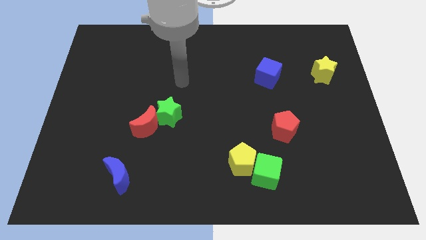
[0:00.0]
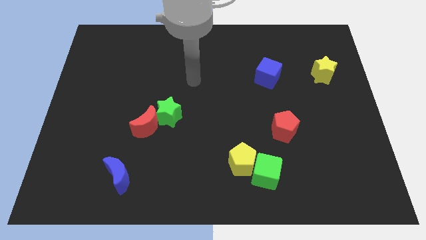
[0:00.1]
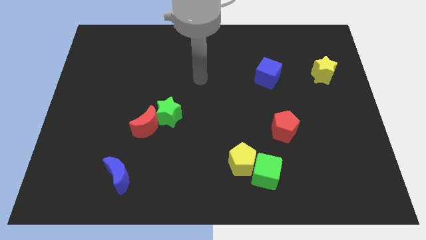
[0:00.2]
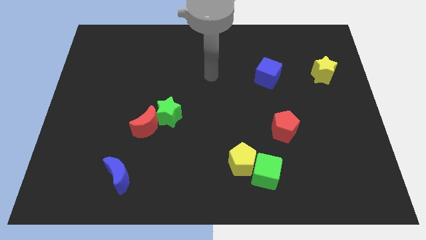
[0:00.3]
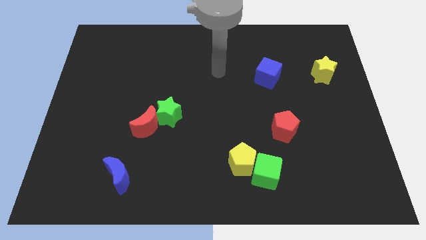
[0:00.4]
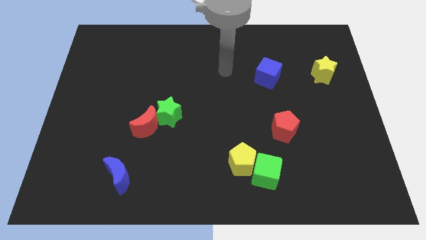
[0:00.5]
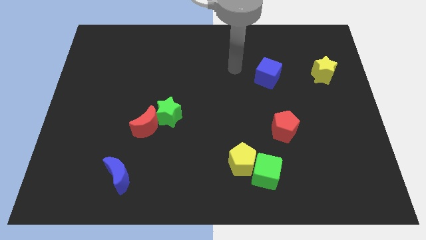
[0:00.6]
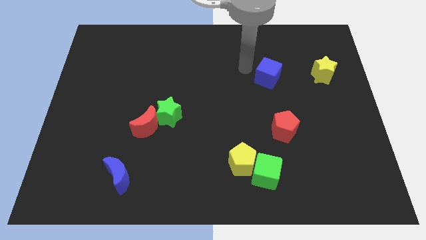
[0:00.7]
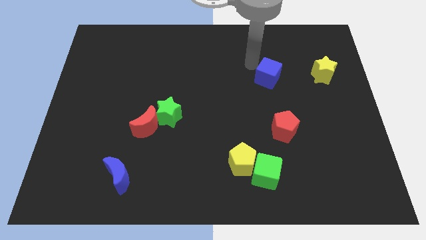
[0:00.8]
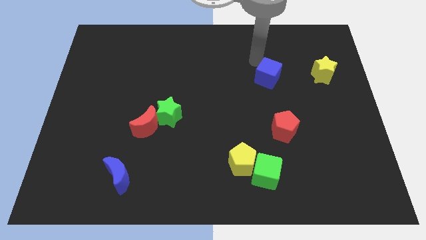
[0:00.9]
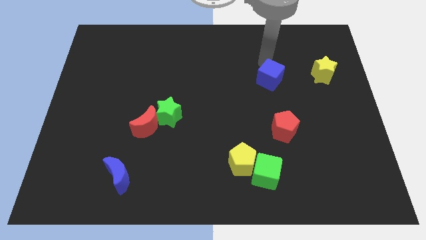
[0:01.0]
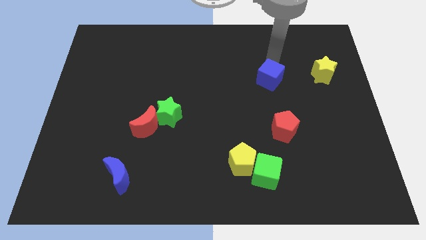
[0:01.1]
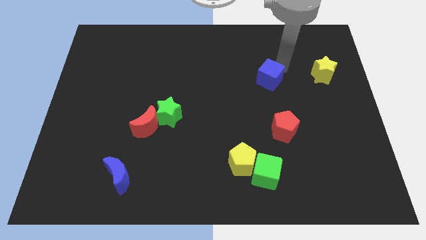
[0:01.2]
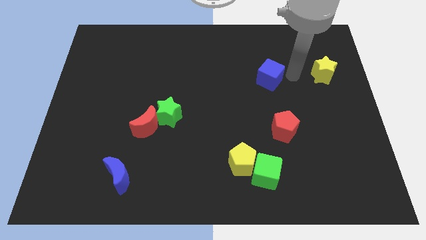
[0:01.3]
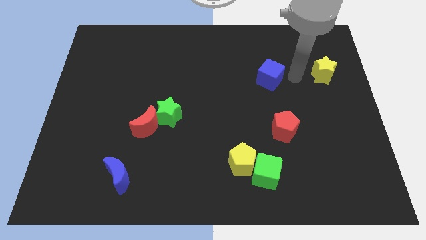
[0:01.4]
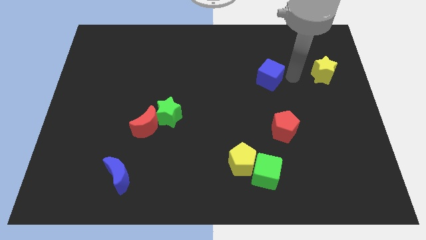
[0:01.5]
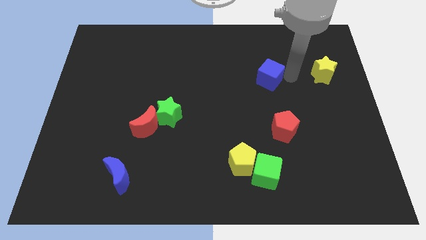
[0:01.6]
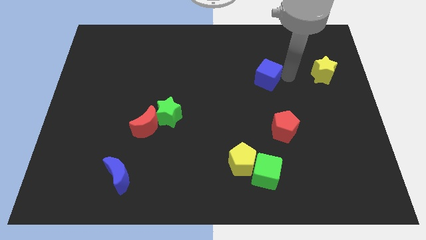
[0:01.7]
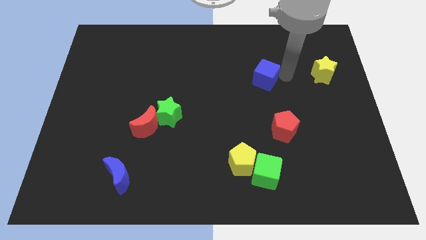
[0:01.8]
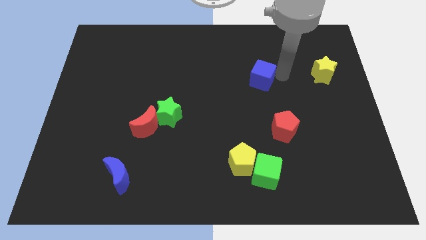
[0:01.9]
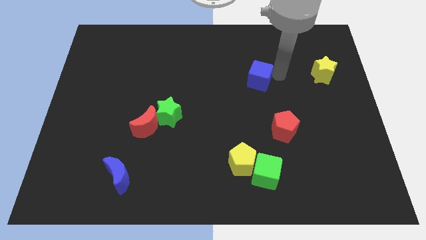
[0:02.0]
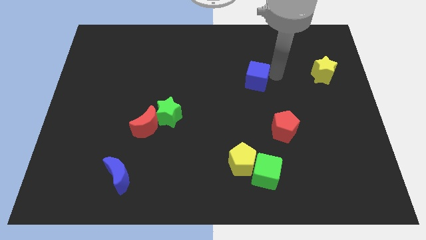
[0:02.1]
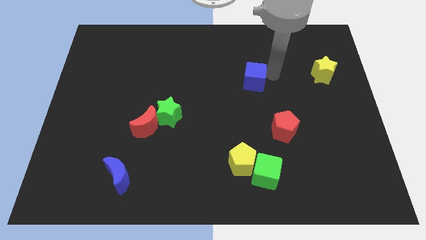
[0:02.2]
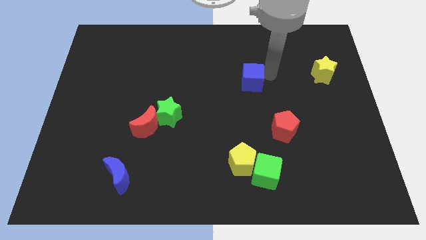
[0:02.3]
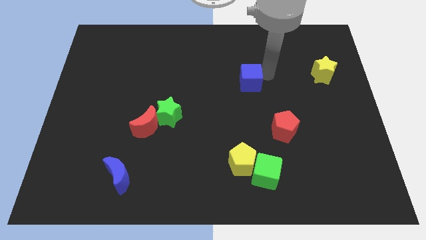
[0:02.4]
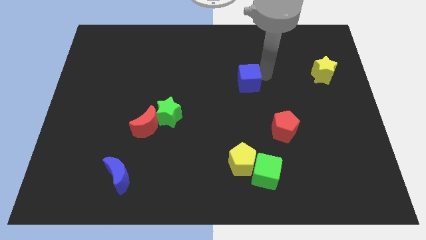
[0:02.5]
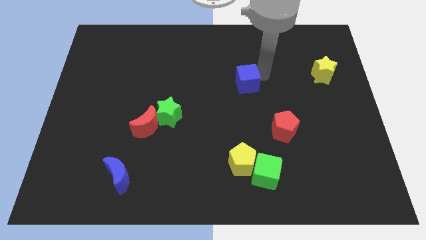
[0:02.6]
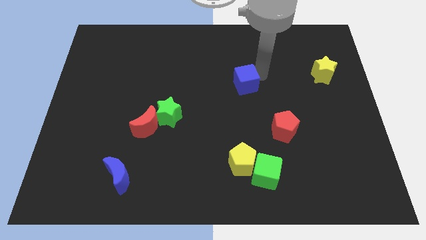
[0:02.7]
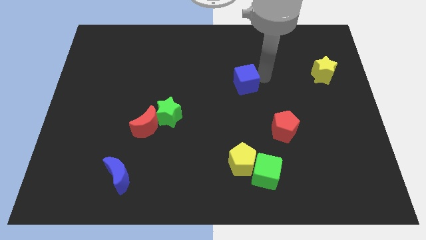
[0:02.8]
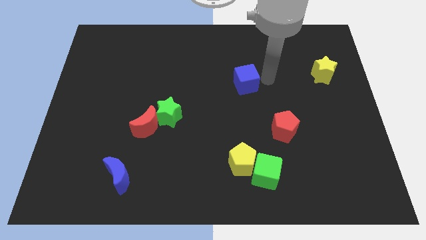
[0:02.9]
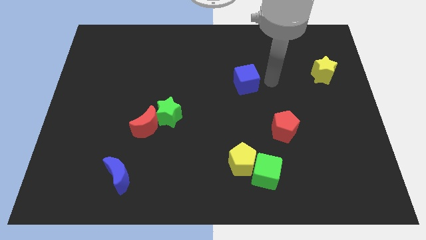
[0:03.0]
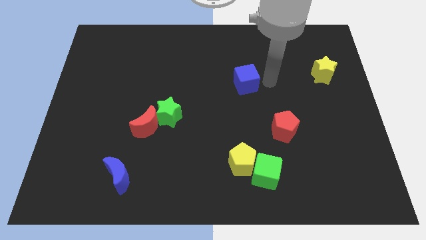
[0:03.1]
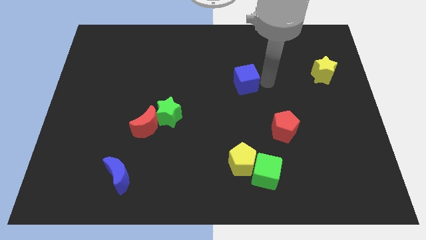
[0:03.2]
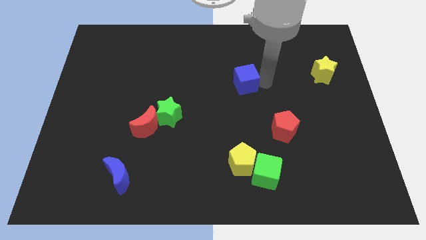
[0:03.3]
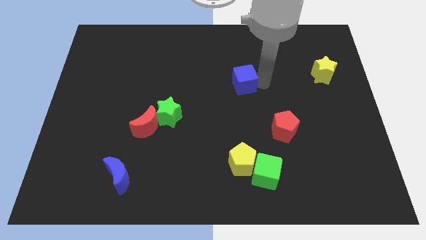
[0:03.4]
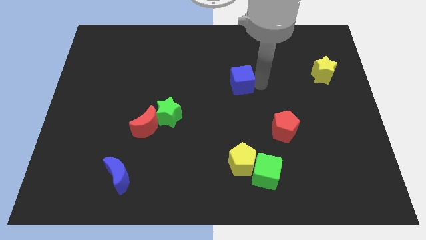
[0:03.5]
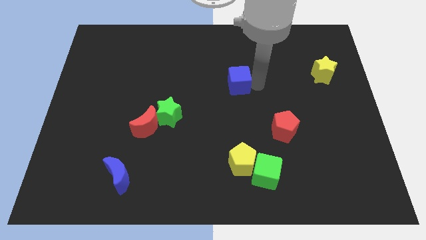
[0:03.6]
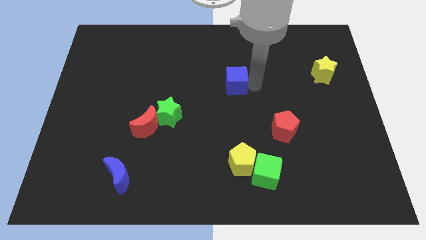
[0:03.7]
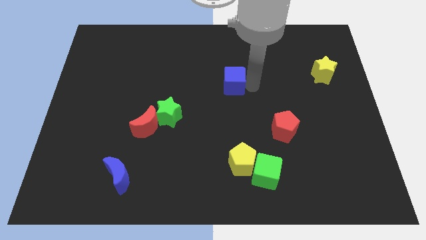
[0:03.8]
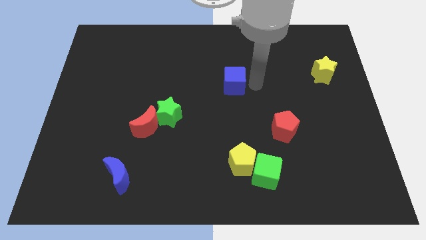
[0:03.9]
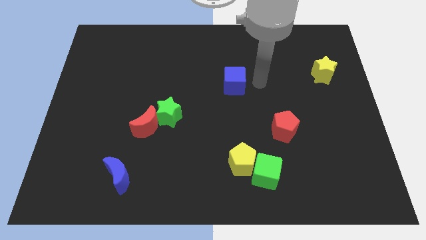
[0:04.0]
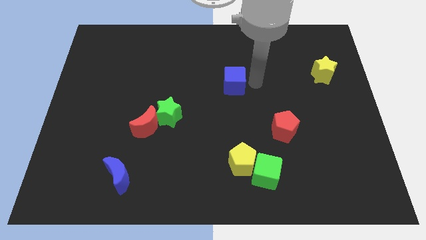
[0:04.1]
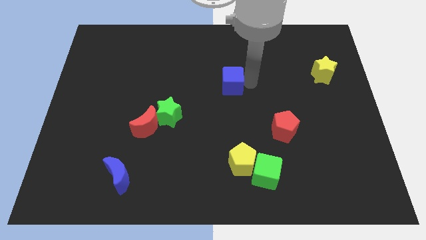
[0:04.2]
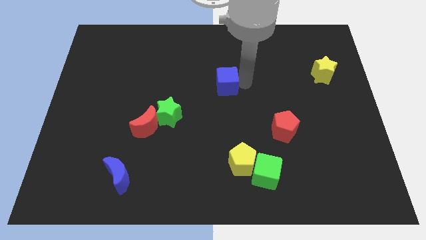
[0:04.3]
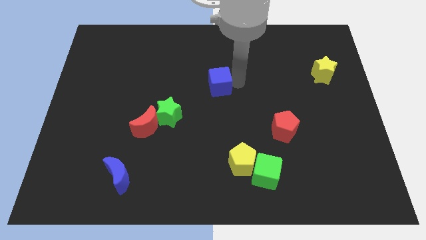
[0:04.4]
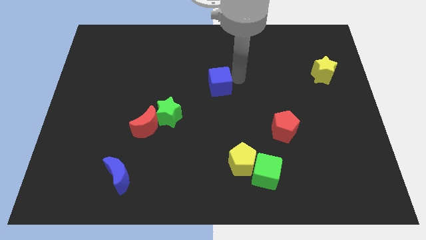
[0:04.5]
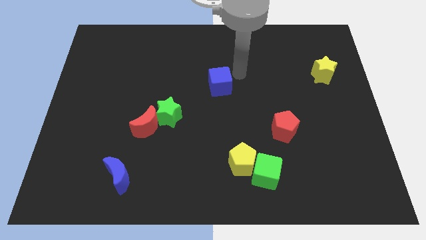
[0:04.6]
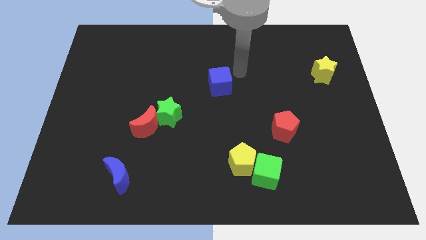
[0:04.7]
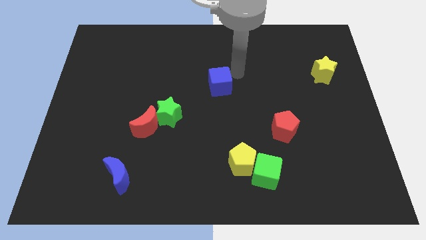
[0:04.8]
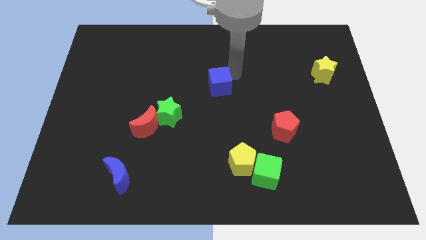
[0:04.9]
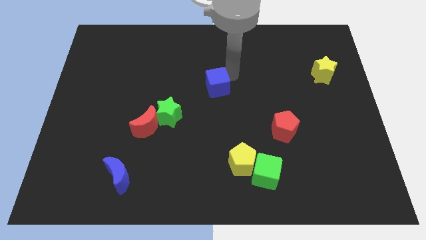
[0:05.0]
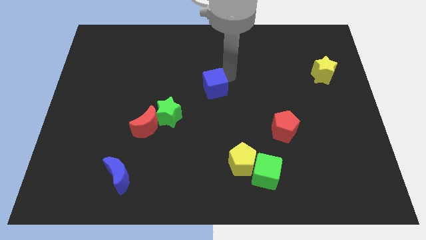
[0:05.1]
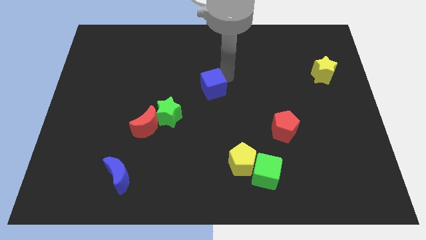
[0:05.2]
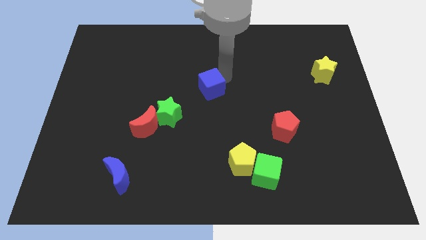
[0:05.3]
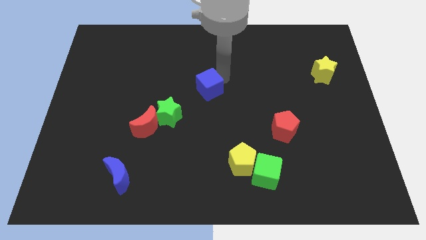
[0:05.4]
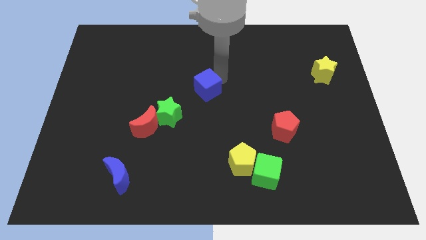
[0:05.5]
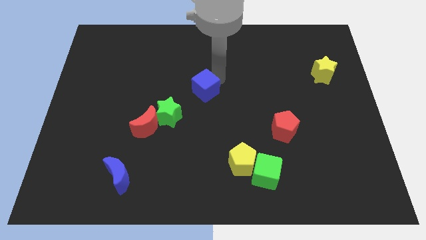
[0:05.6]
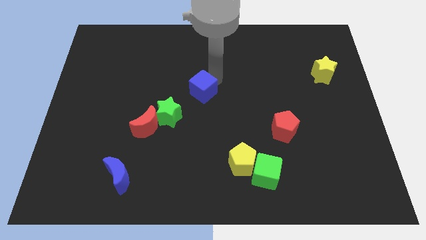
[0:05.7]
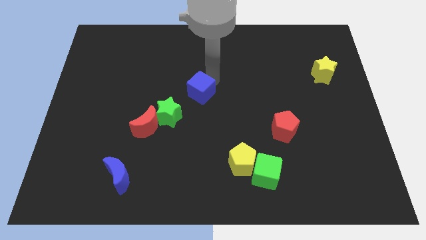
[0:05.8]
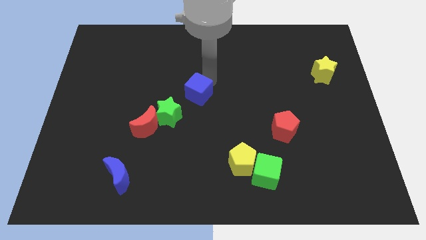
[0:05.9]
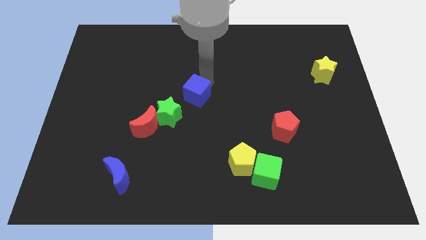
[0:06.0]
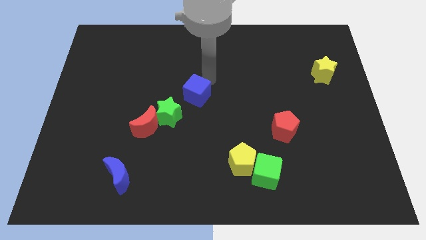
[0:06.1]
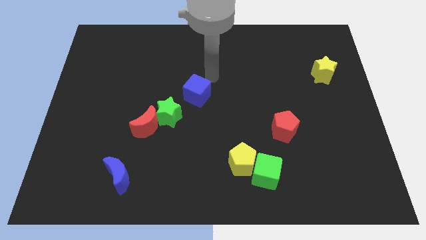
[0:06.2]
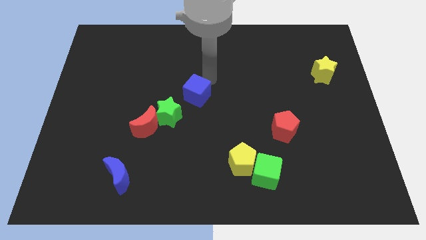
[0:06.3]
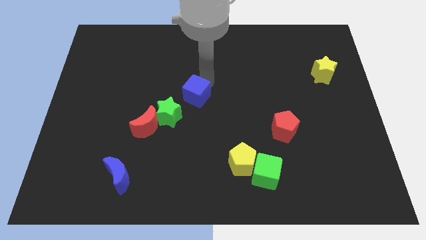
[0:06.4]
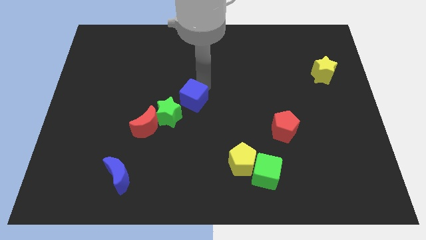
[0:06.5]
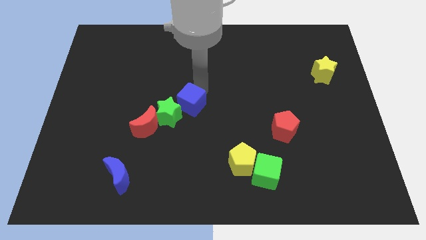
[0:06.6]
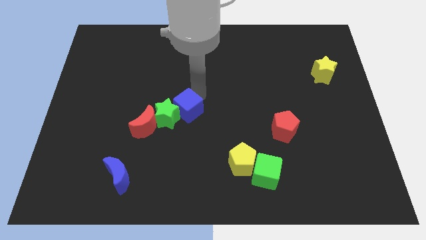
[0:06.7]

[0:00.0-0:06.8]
push the blue cube to the green star
